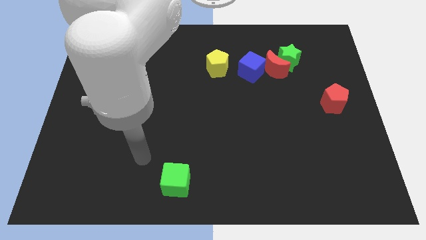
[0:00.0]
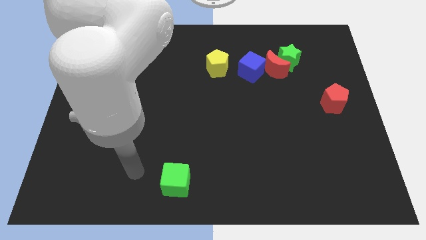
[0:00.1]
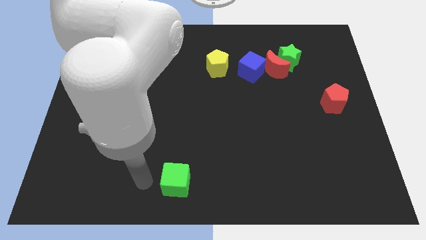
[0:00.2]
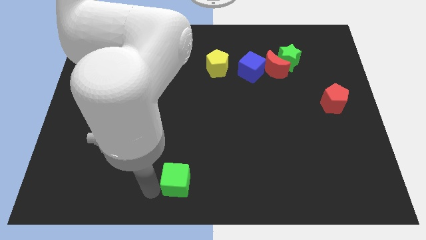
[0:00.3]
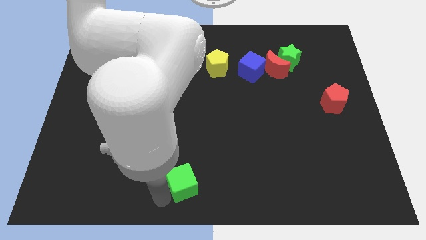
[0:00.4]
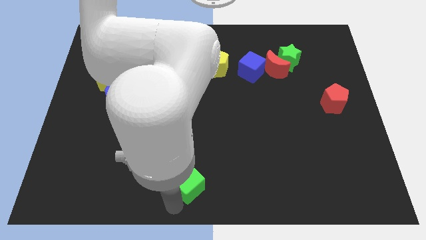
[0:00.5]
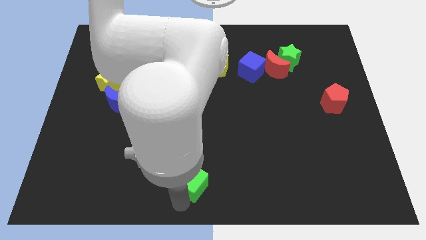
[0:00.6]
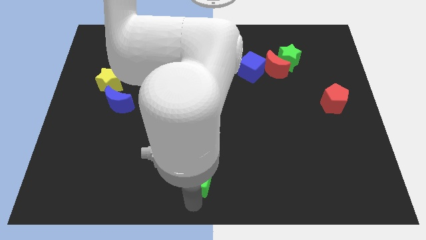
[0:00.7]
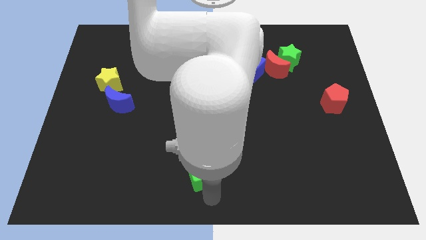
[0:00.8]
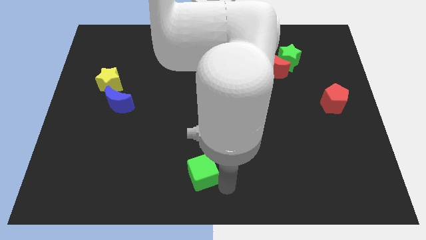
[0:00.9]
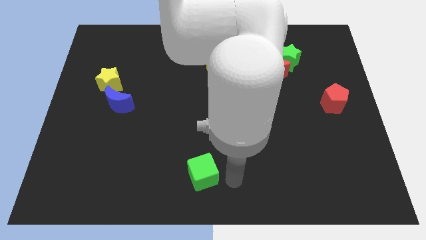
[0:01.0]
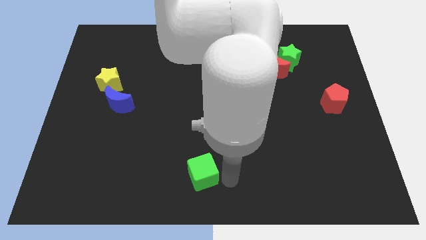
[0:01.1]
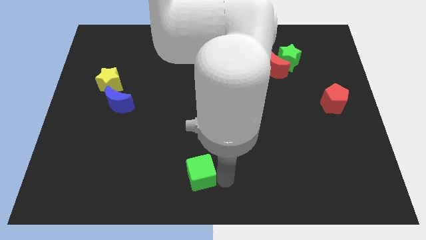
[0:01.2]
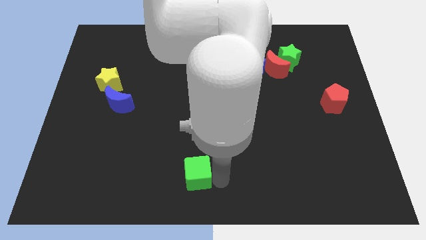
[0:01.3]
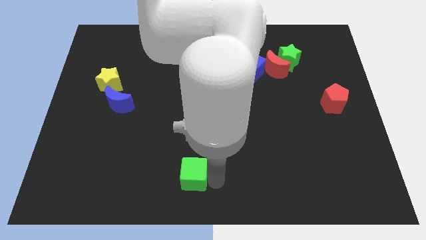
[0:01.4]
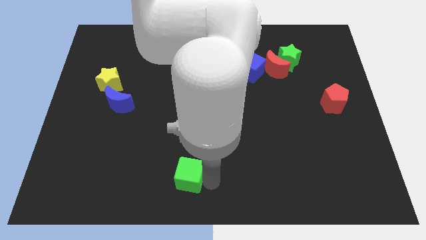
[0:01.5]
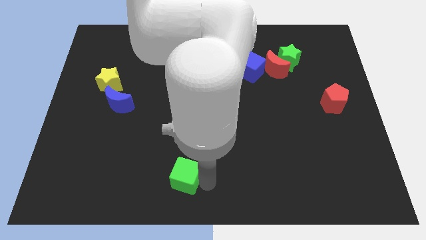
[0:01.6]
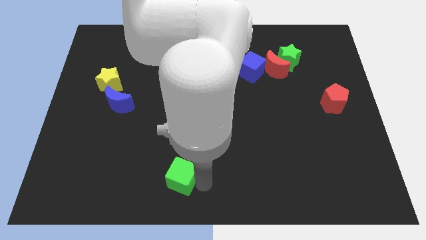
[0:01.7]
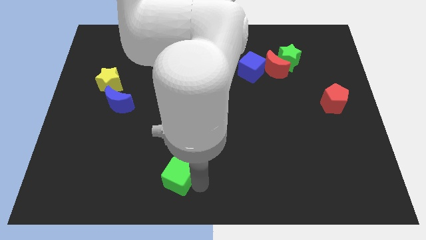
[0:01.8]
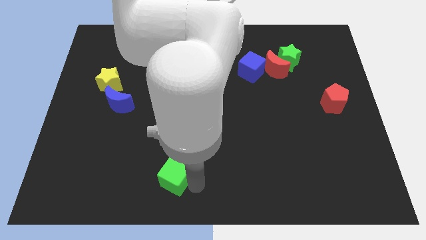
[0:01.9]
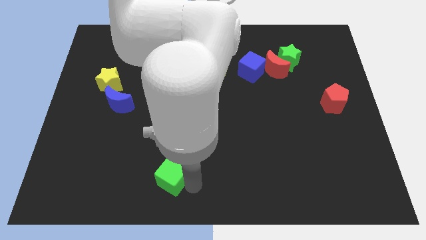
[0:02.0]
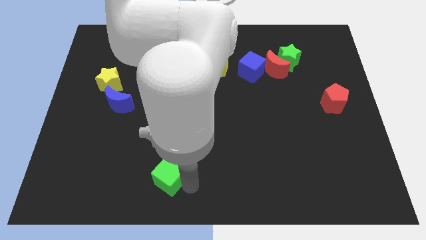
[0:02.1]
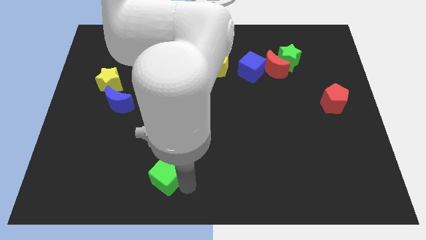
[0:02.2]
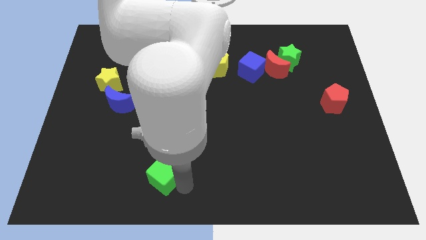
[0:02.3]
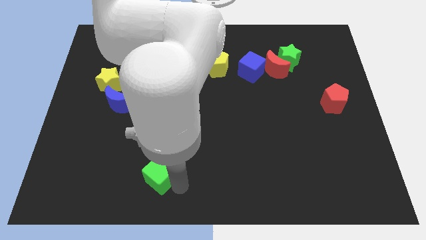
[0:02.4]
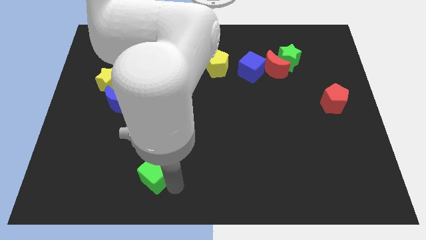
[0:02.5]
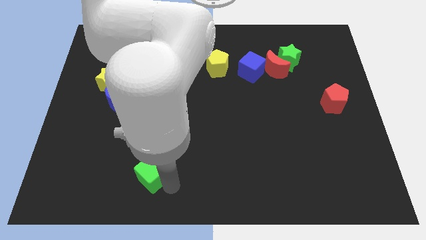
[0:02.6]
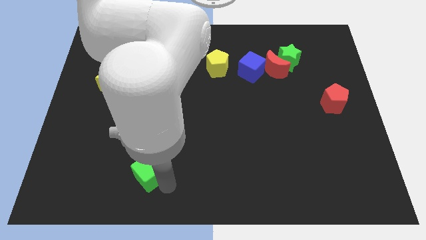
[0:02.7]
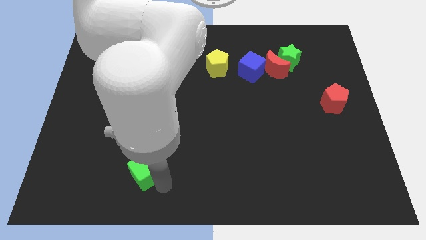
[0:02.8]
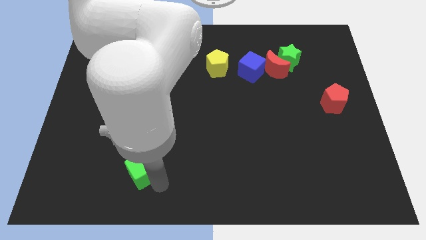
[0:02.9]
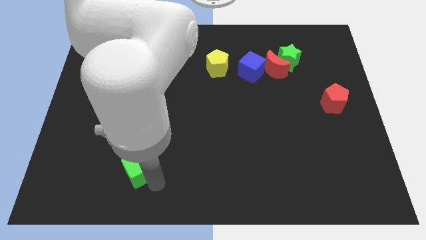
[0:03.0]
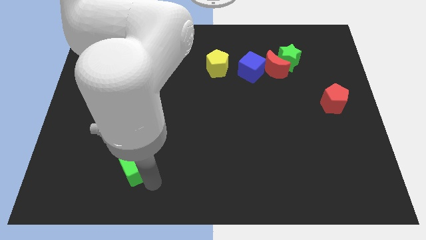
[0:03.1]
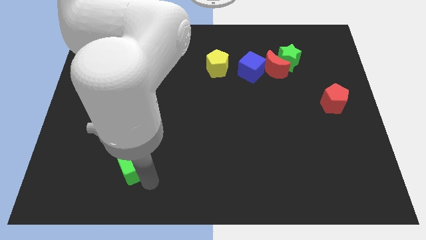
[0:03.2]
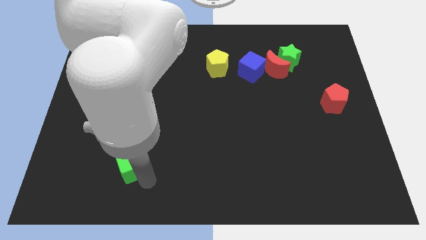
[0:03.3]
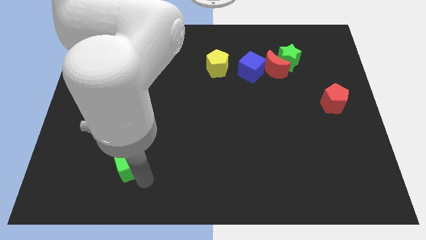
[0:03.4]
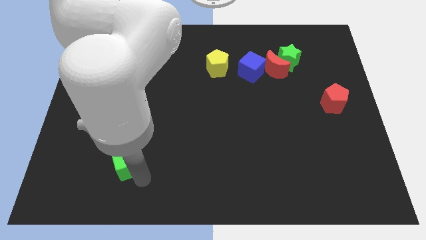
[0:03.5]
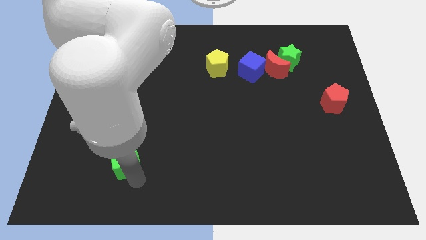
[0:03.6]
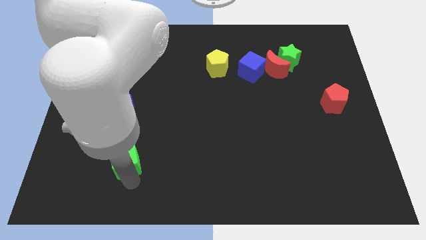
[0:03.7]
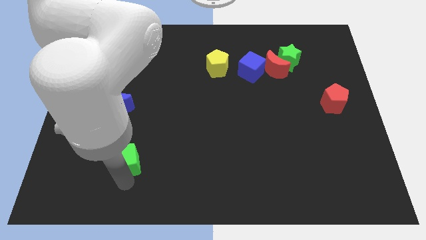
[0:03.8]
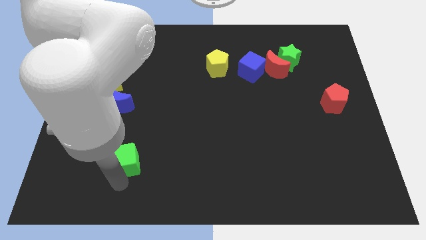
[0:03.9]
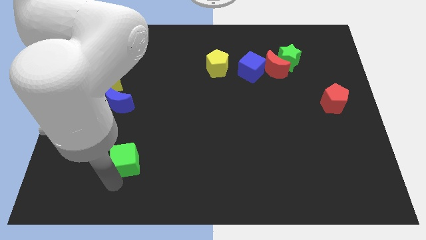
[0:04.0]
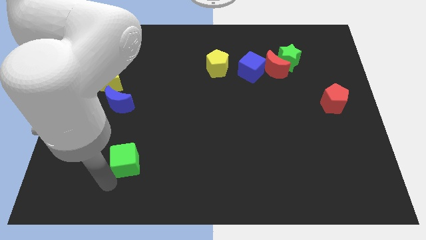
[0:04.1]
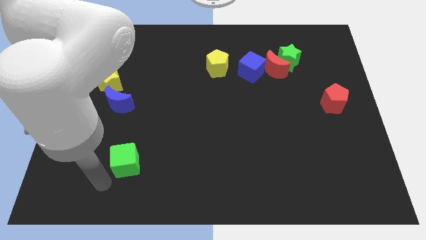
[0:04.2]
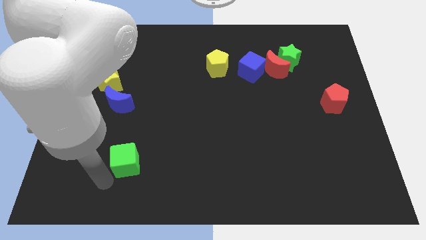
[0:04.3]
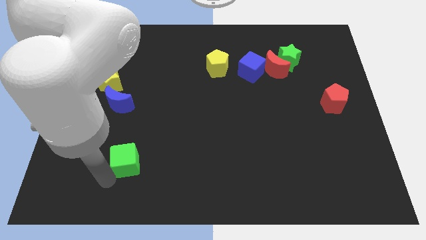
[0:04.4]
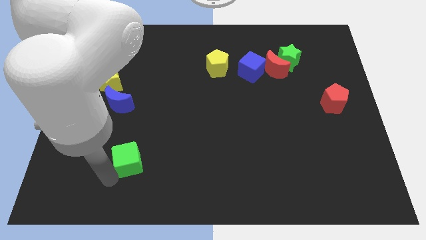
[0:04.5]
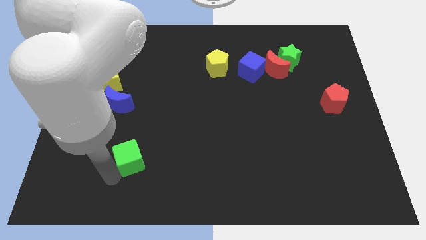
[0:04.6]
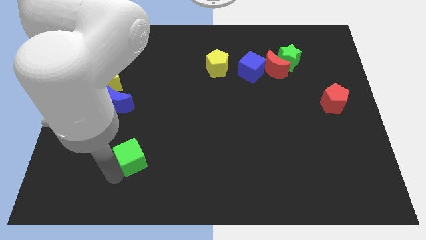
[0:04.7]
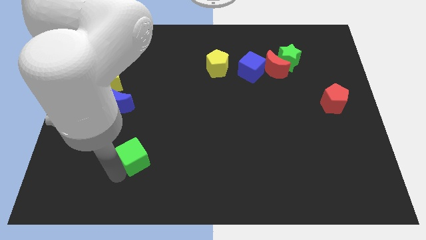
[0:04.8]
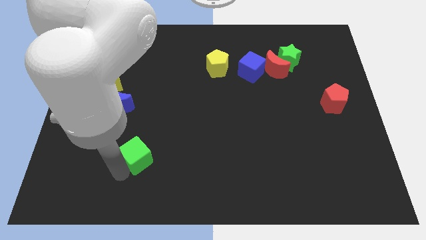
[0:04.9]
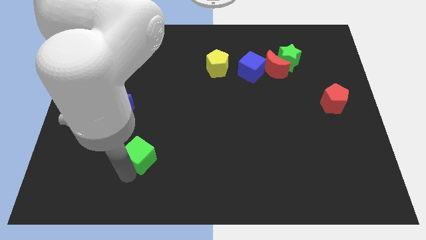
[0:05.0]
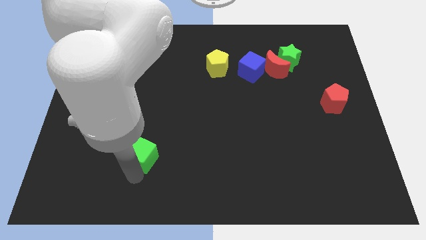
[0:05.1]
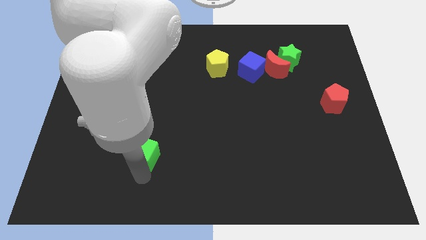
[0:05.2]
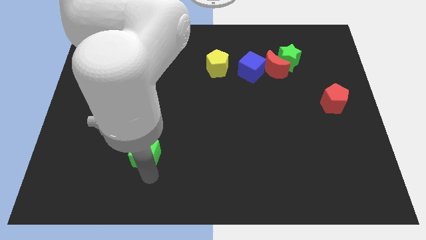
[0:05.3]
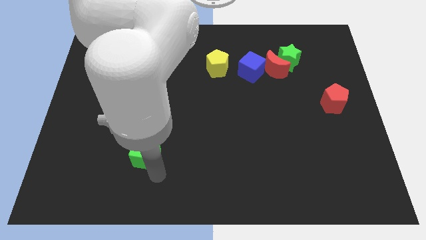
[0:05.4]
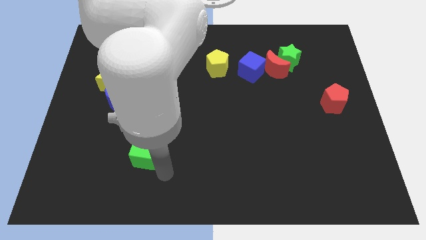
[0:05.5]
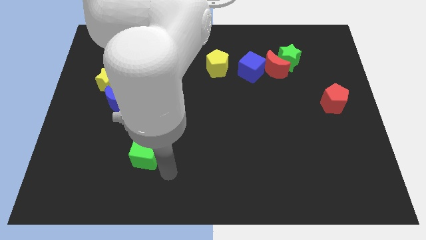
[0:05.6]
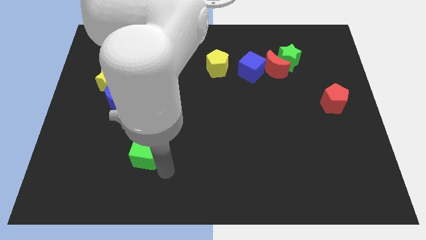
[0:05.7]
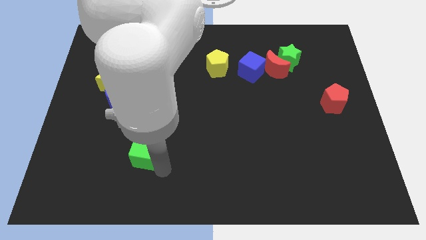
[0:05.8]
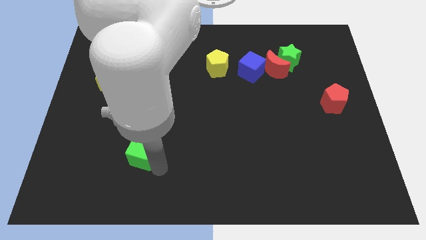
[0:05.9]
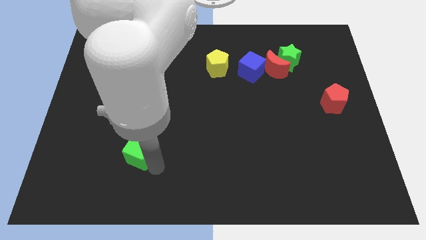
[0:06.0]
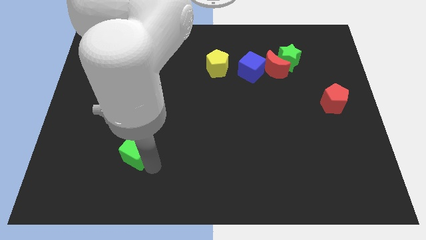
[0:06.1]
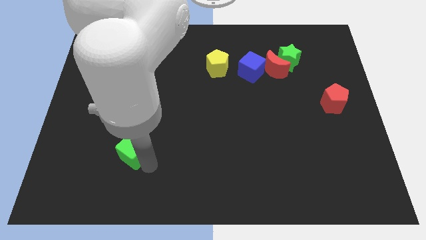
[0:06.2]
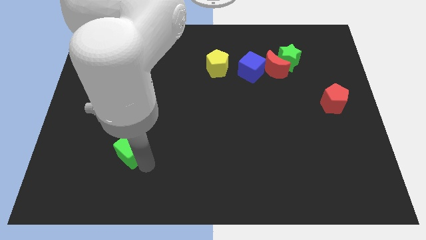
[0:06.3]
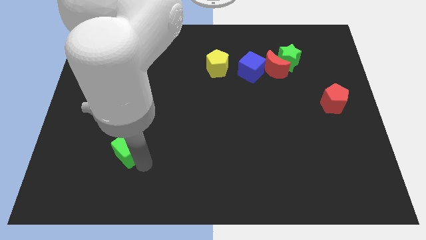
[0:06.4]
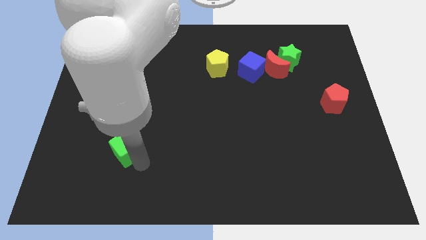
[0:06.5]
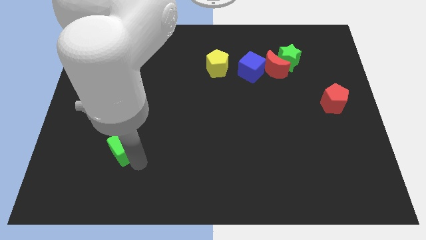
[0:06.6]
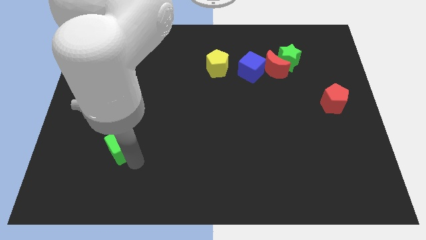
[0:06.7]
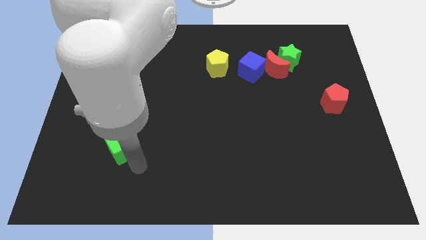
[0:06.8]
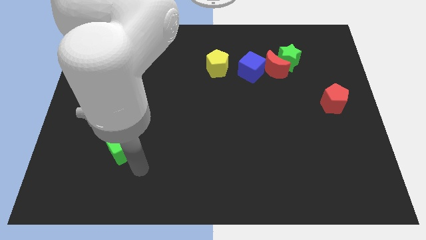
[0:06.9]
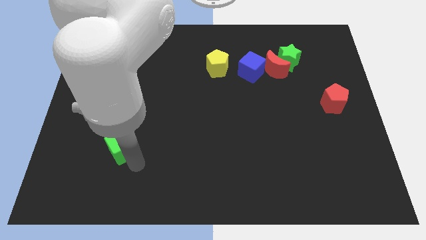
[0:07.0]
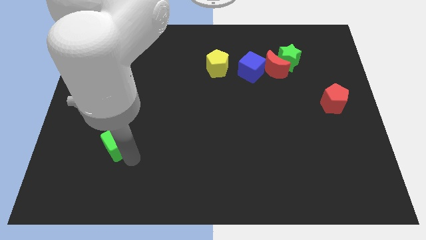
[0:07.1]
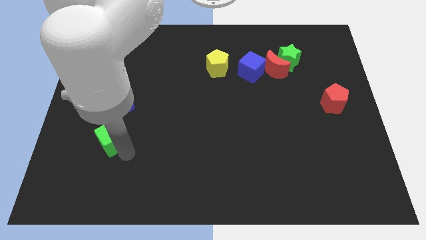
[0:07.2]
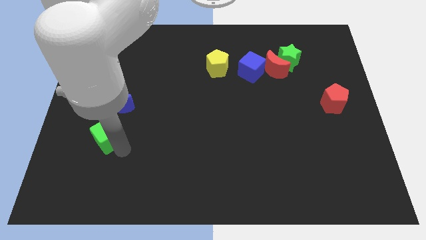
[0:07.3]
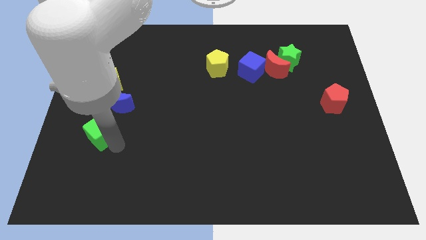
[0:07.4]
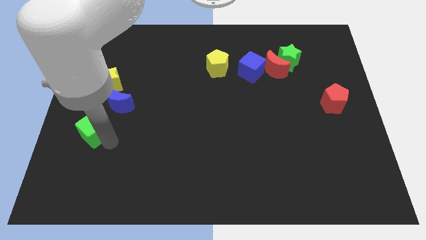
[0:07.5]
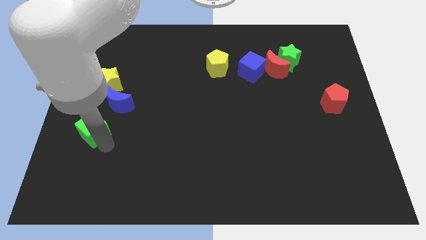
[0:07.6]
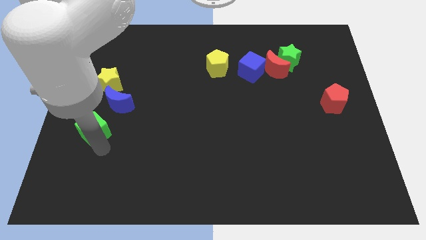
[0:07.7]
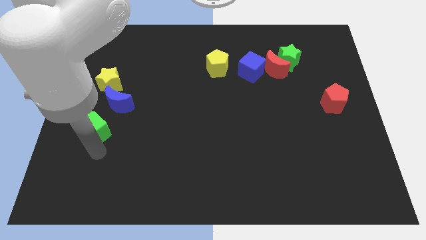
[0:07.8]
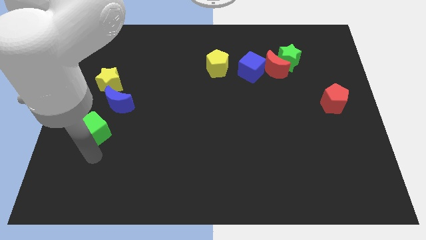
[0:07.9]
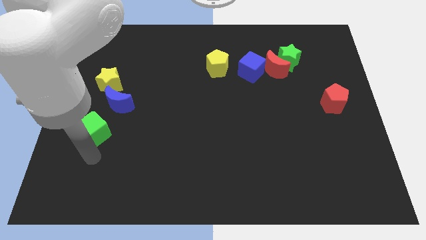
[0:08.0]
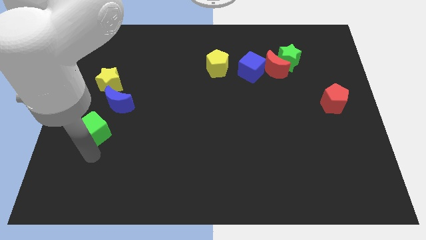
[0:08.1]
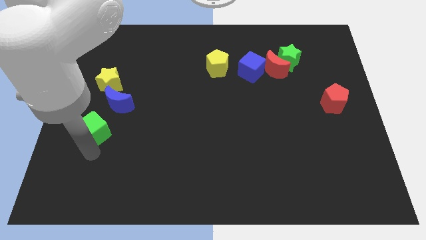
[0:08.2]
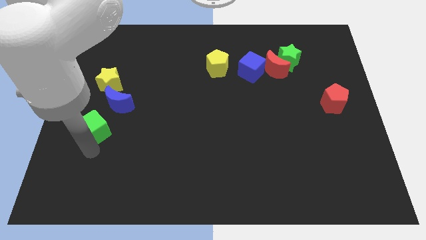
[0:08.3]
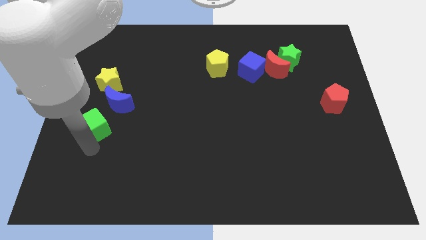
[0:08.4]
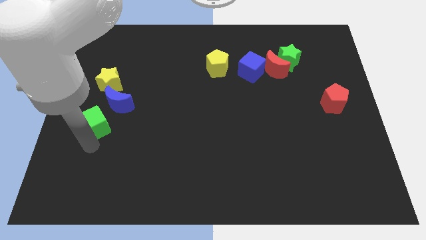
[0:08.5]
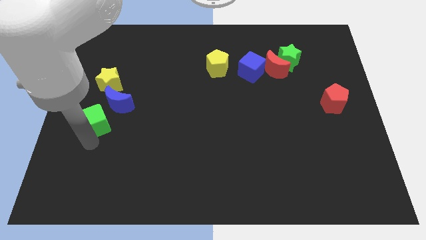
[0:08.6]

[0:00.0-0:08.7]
slide the green cube to the left side of the board
